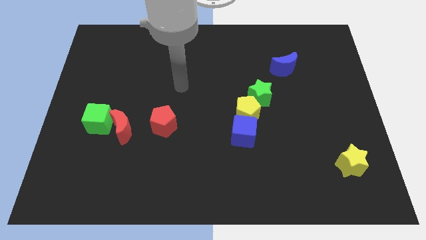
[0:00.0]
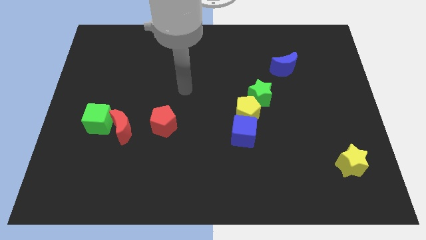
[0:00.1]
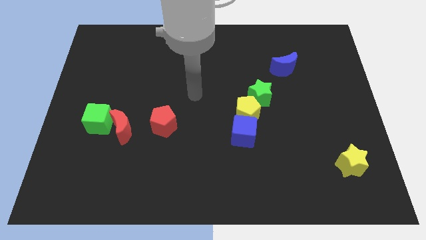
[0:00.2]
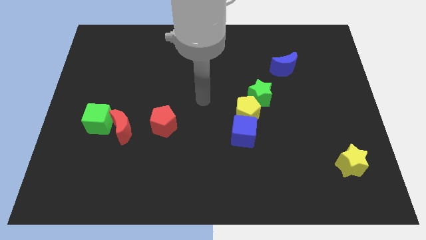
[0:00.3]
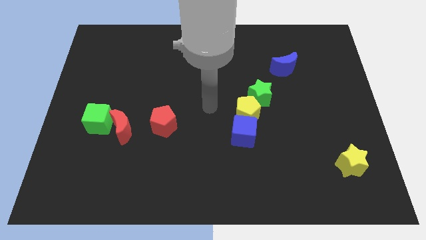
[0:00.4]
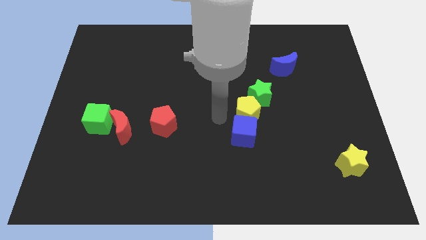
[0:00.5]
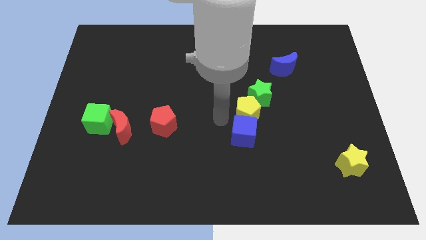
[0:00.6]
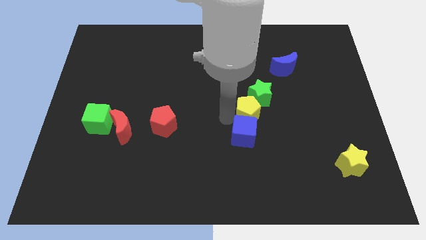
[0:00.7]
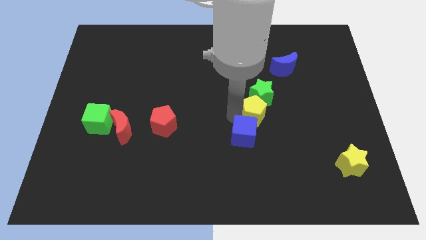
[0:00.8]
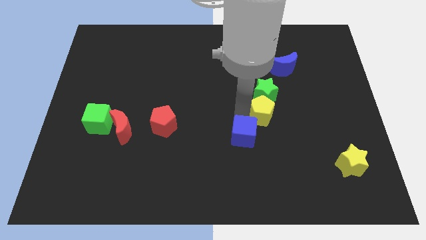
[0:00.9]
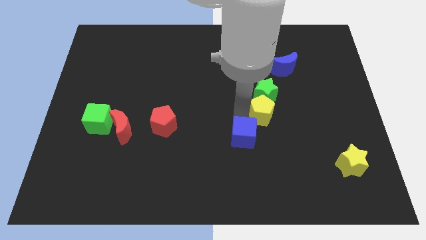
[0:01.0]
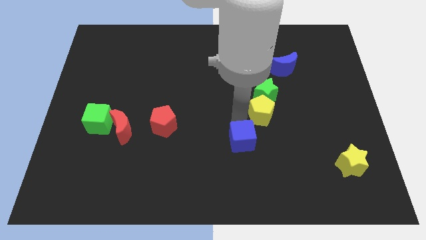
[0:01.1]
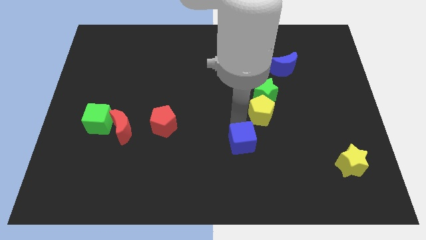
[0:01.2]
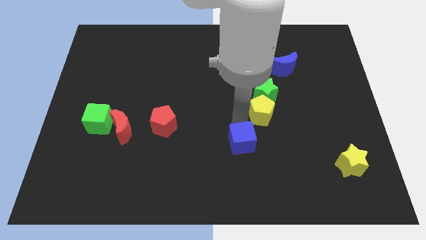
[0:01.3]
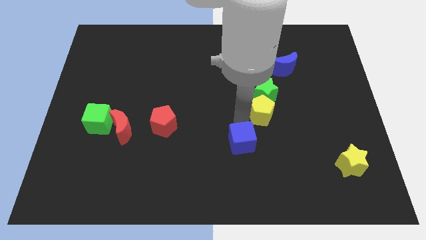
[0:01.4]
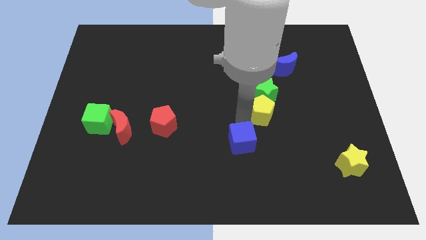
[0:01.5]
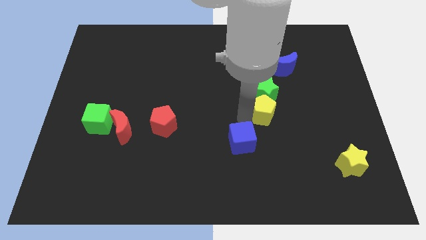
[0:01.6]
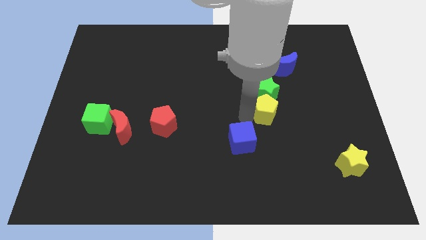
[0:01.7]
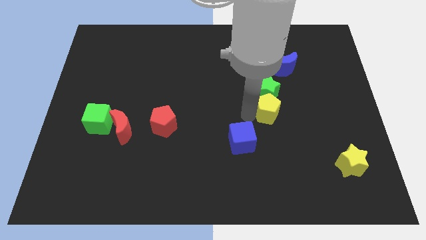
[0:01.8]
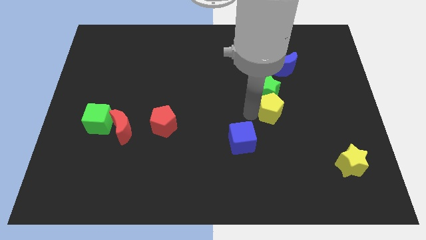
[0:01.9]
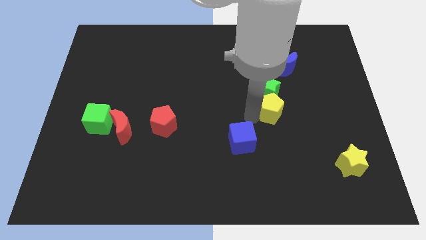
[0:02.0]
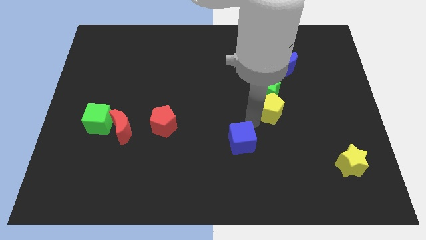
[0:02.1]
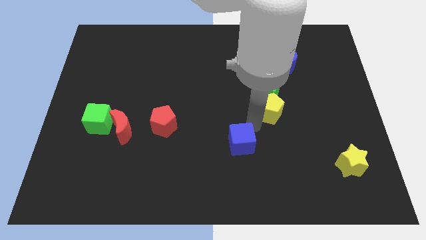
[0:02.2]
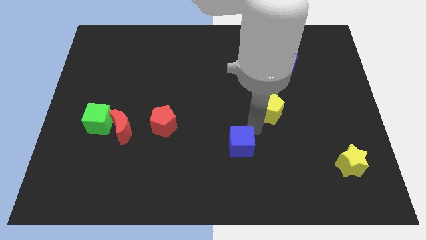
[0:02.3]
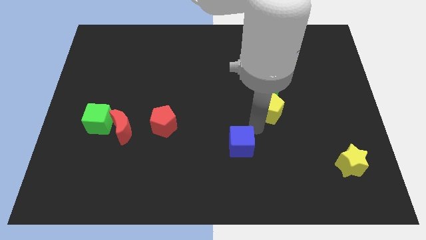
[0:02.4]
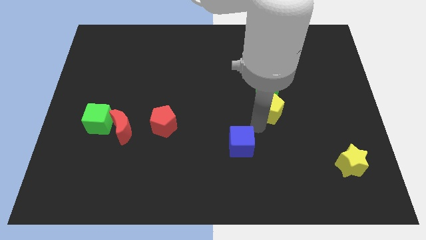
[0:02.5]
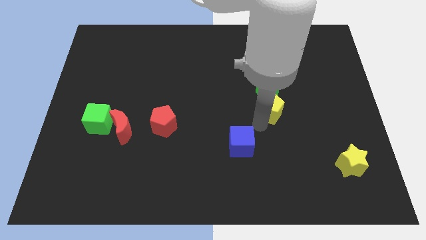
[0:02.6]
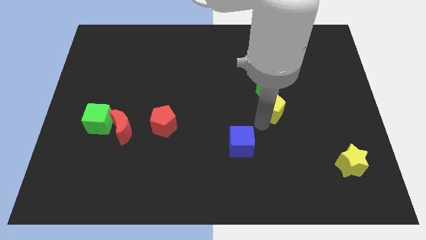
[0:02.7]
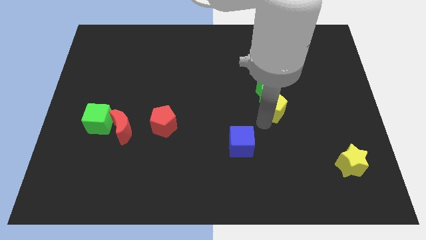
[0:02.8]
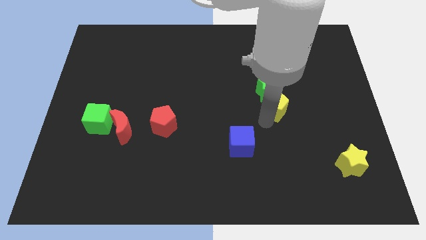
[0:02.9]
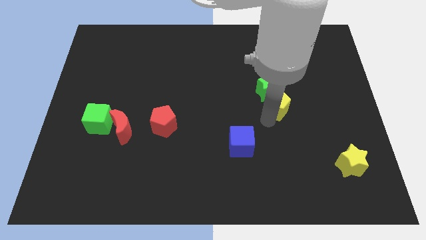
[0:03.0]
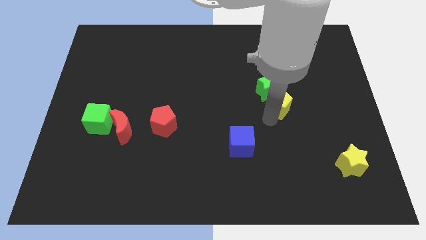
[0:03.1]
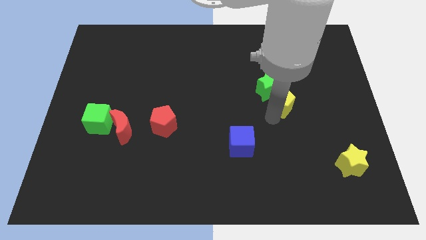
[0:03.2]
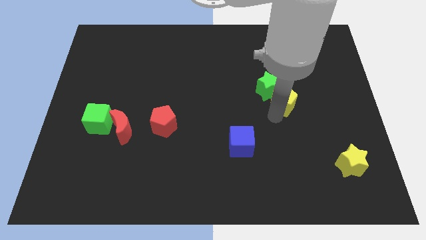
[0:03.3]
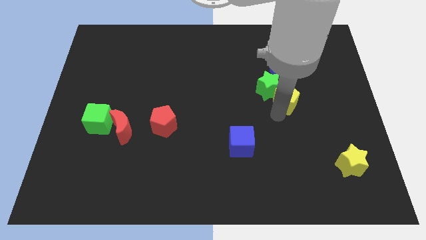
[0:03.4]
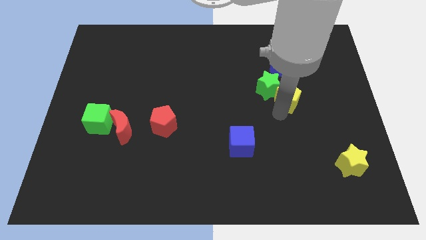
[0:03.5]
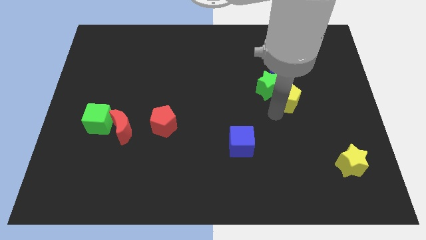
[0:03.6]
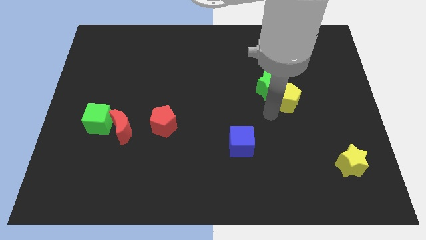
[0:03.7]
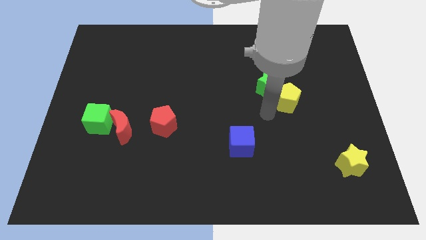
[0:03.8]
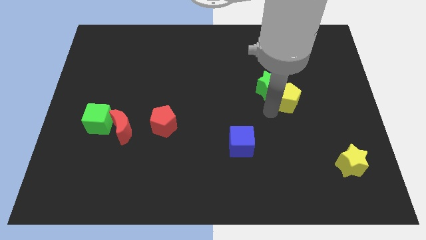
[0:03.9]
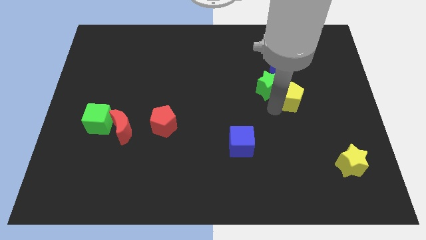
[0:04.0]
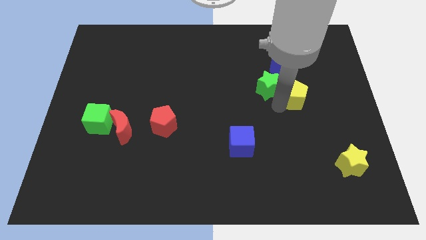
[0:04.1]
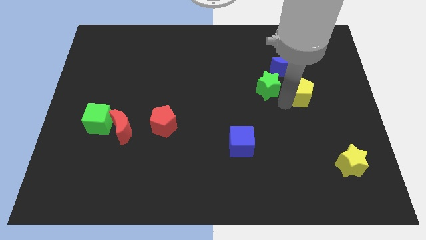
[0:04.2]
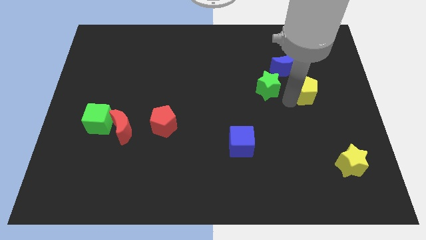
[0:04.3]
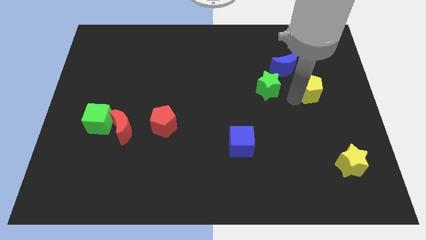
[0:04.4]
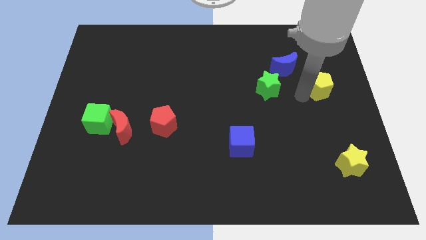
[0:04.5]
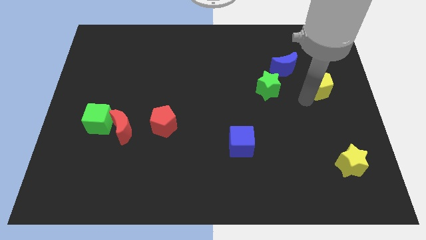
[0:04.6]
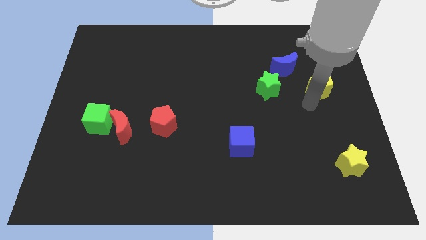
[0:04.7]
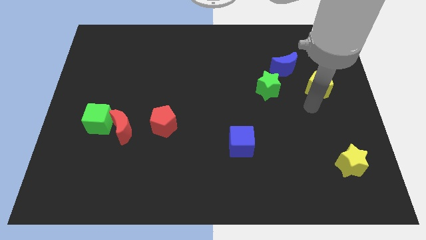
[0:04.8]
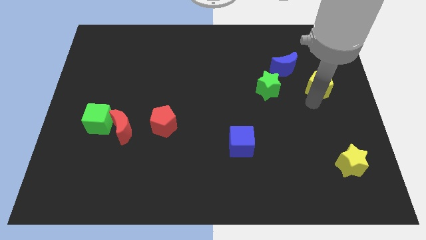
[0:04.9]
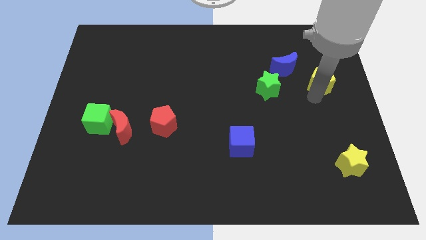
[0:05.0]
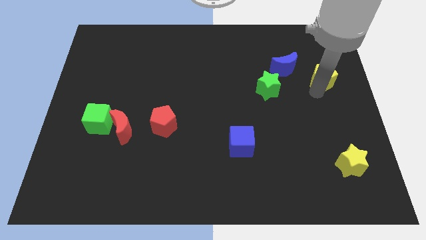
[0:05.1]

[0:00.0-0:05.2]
push the yellow pentagon just right of the blue moon

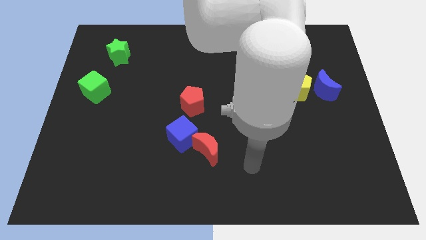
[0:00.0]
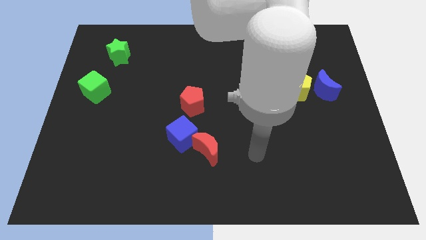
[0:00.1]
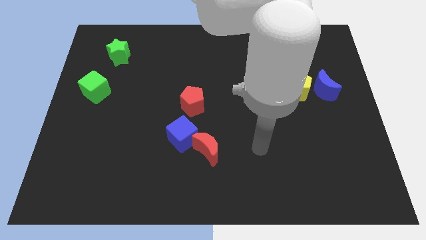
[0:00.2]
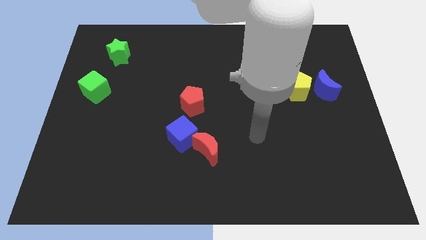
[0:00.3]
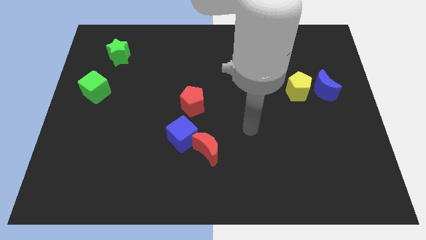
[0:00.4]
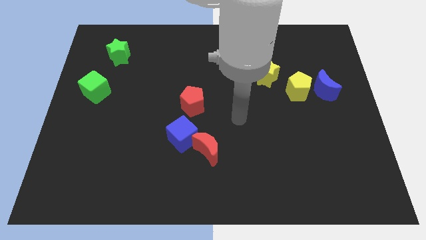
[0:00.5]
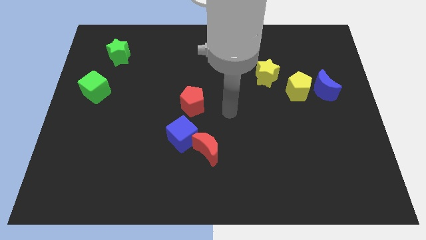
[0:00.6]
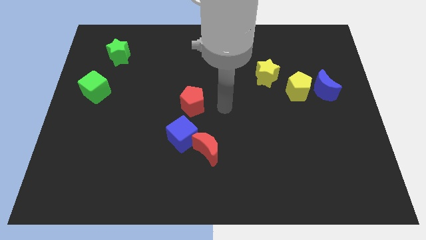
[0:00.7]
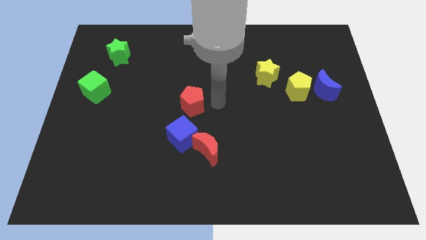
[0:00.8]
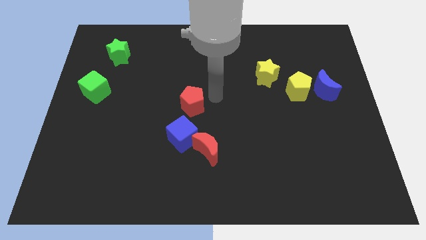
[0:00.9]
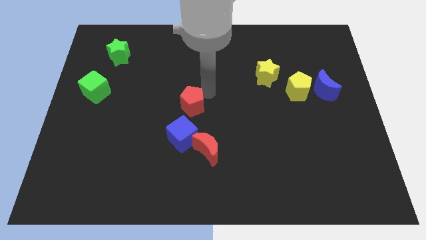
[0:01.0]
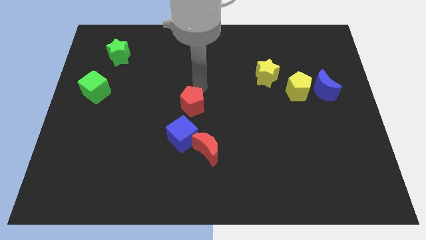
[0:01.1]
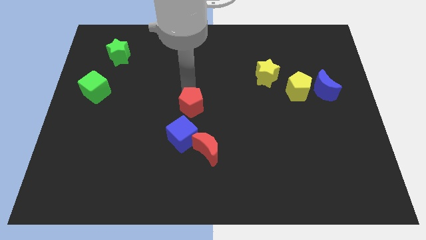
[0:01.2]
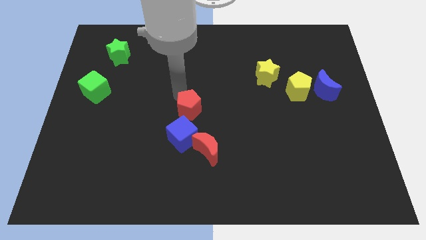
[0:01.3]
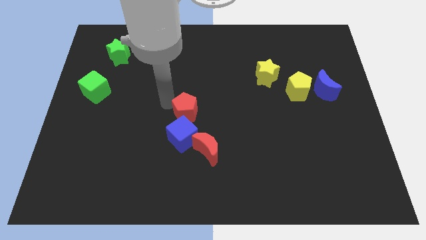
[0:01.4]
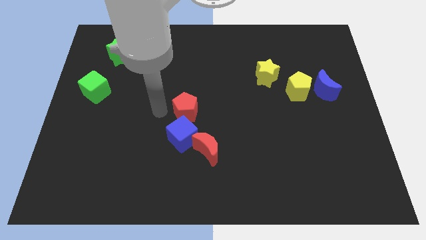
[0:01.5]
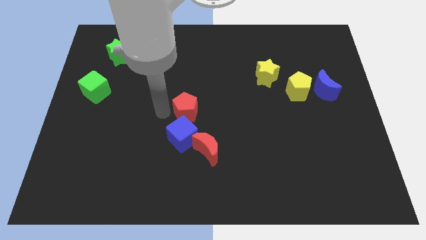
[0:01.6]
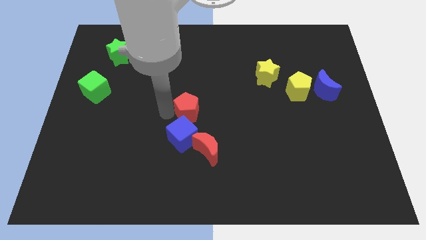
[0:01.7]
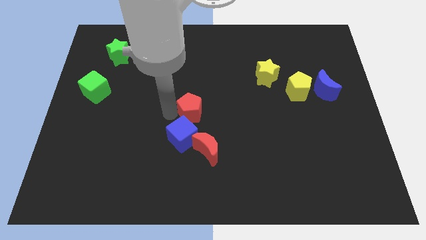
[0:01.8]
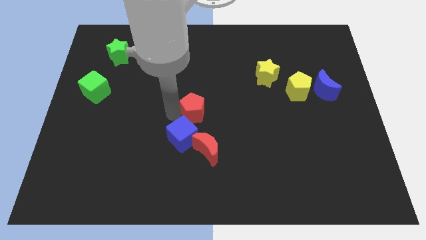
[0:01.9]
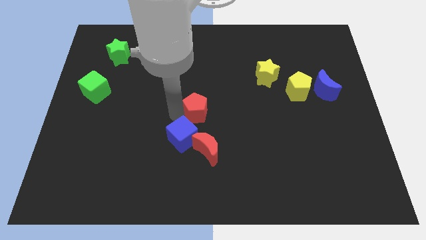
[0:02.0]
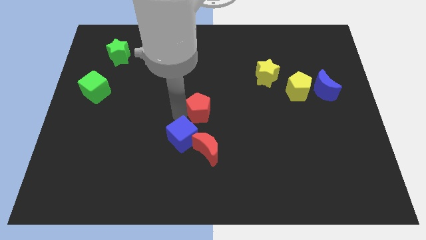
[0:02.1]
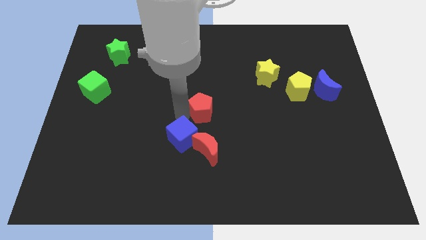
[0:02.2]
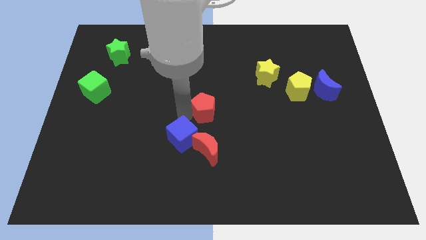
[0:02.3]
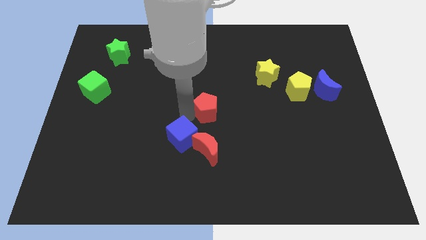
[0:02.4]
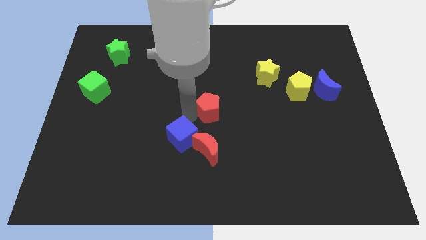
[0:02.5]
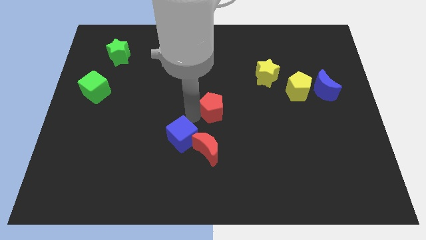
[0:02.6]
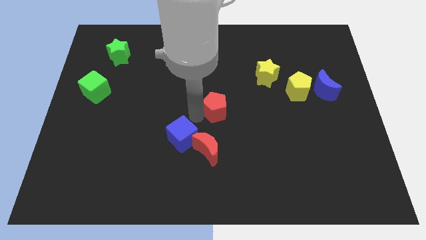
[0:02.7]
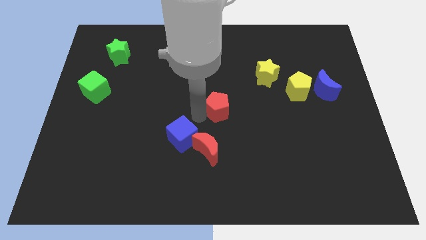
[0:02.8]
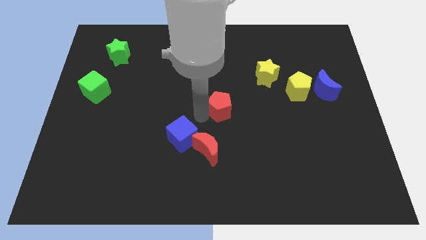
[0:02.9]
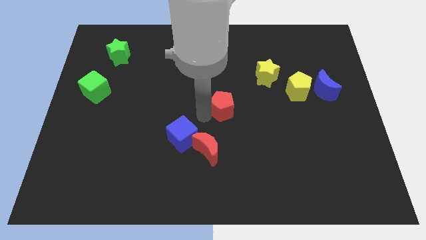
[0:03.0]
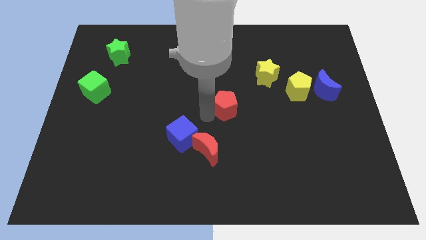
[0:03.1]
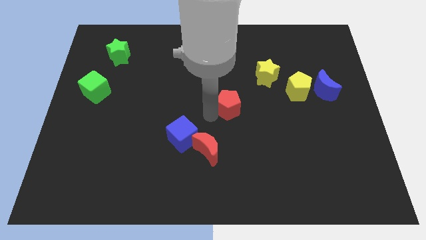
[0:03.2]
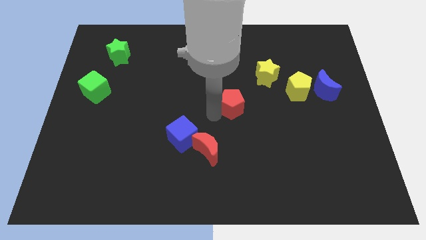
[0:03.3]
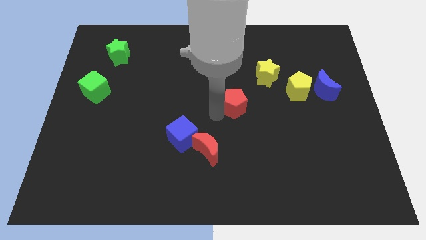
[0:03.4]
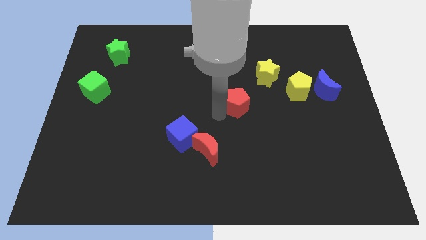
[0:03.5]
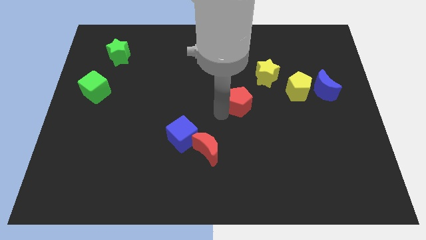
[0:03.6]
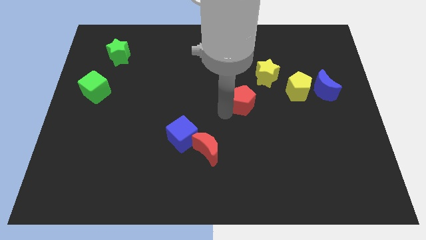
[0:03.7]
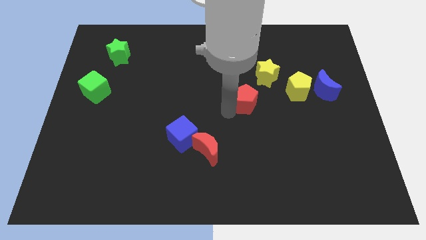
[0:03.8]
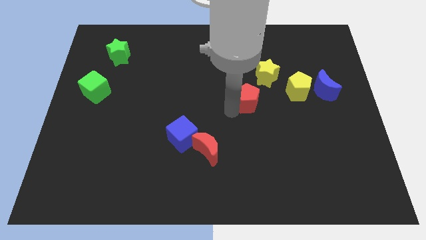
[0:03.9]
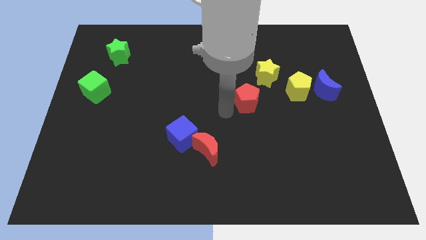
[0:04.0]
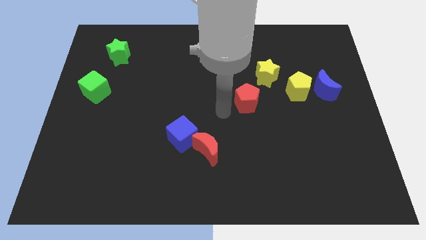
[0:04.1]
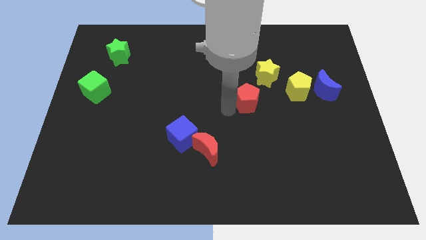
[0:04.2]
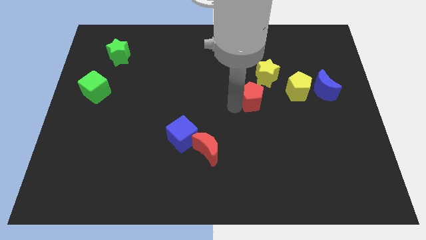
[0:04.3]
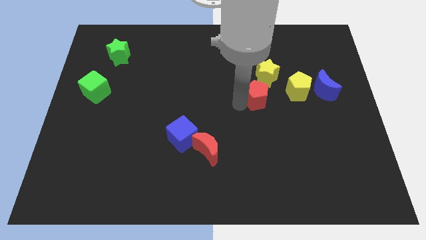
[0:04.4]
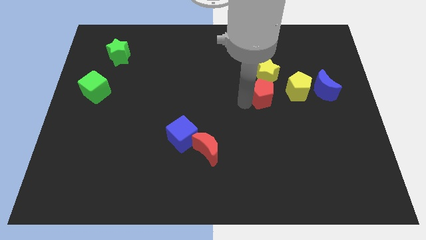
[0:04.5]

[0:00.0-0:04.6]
move the red pentagon just left of the blue moon
